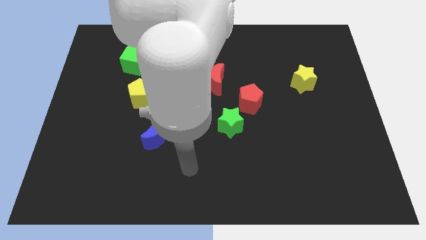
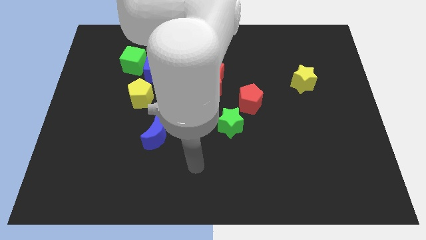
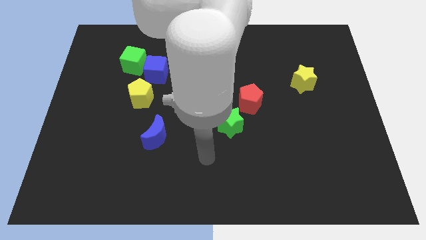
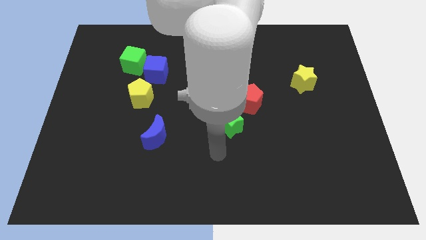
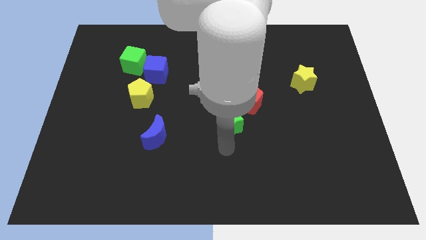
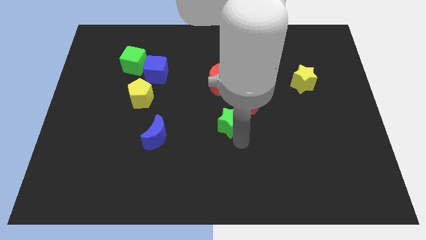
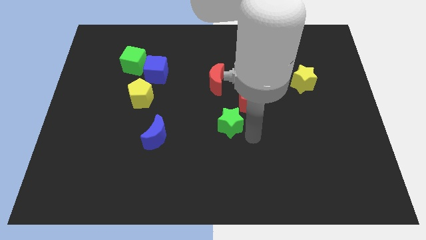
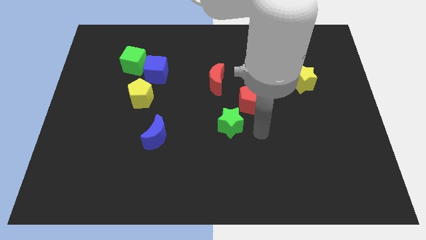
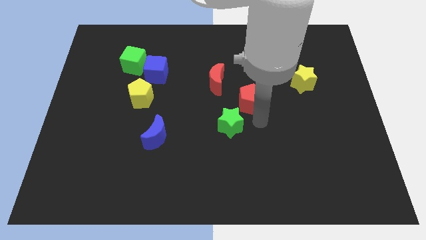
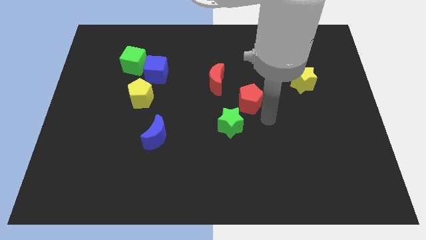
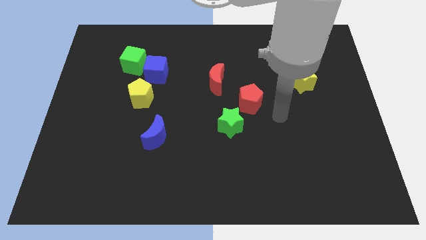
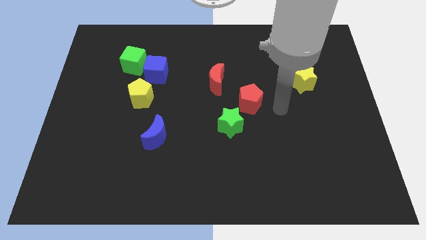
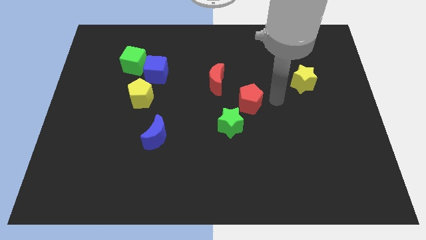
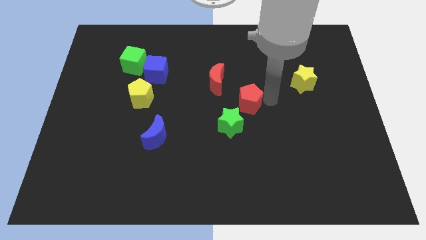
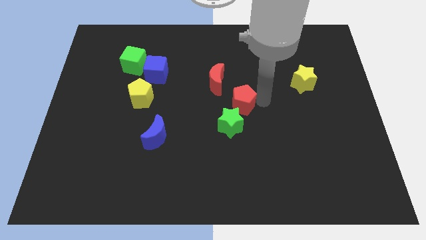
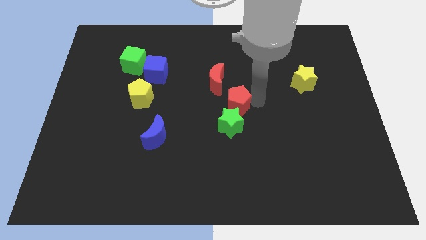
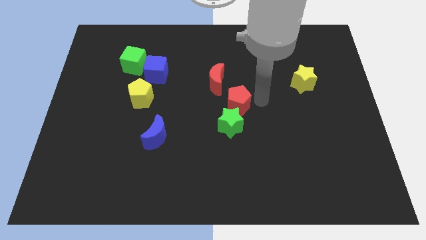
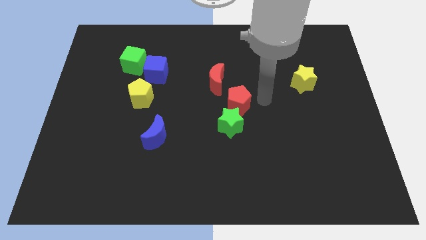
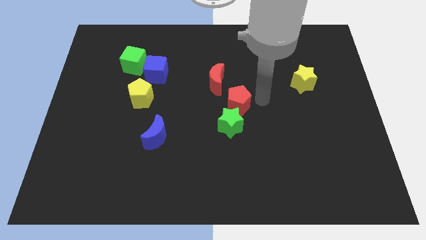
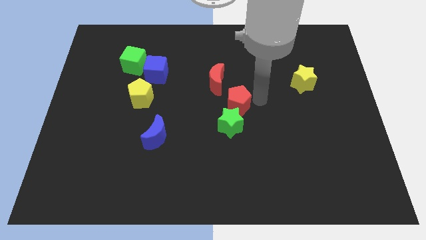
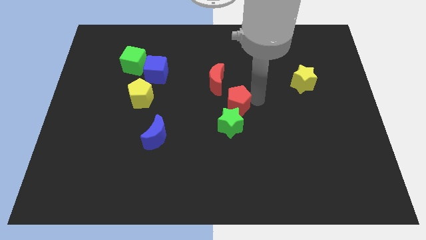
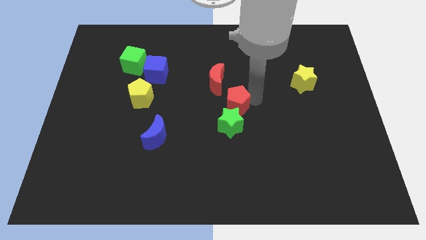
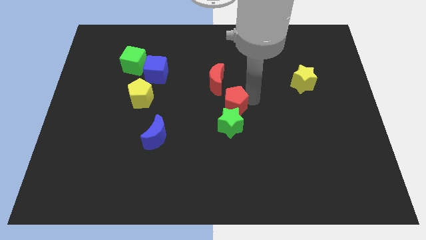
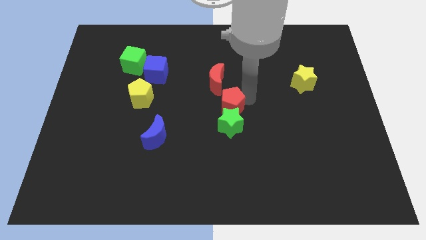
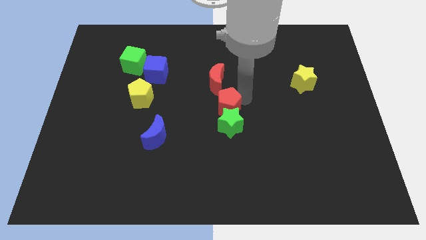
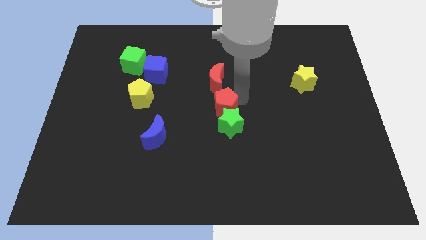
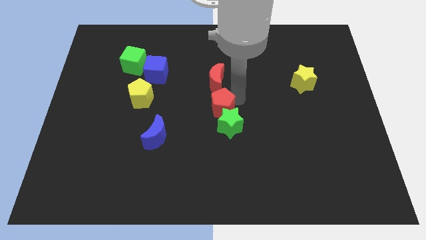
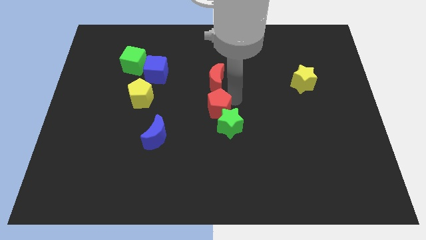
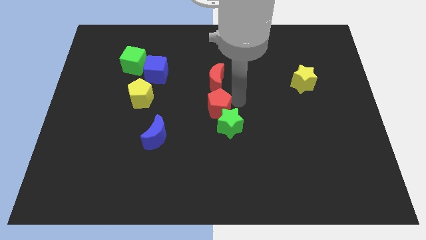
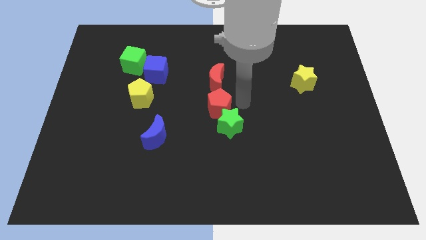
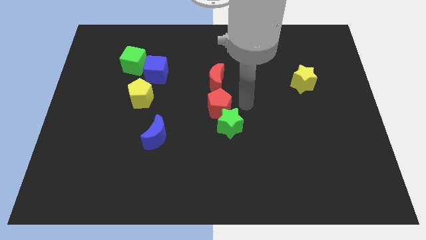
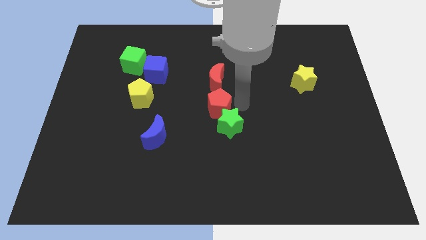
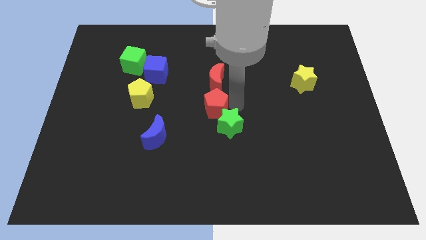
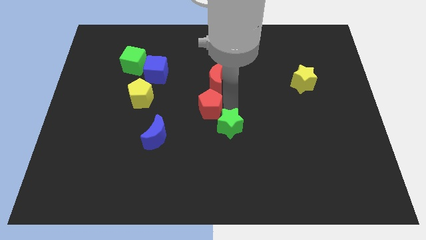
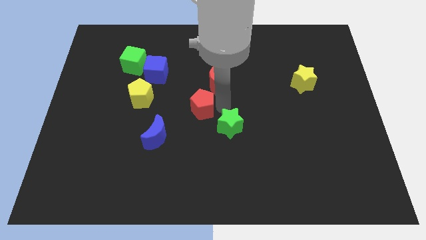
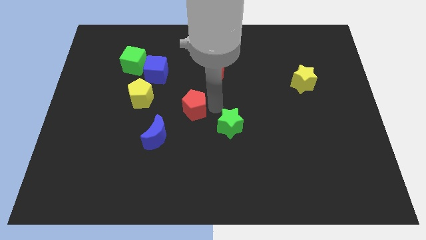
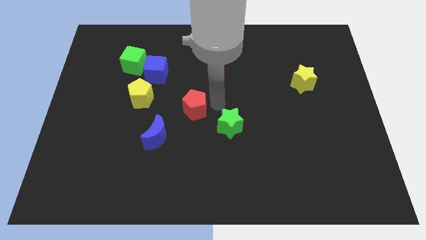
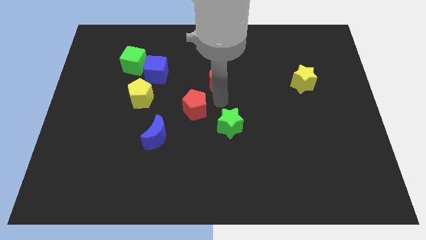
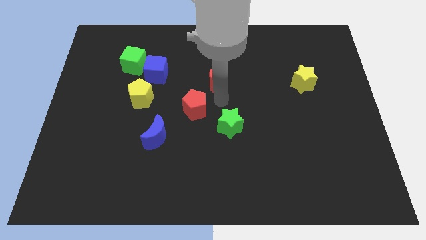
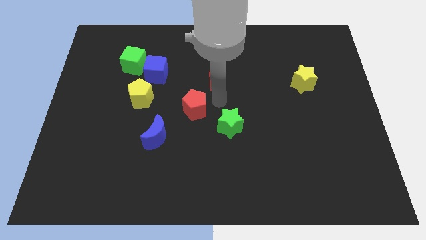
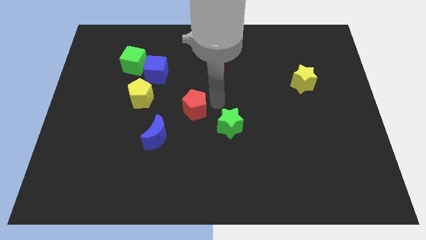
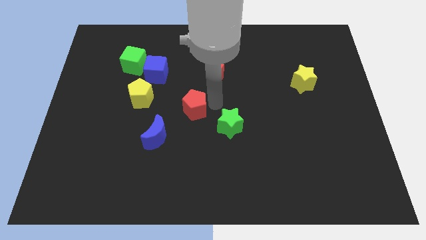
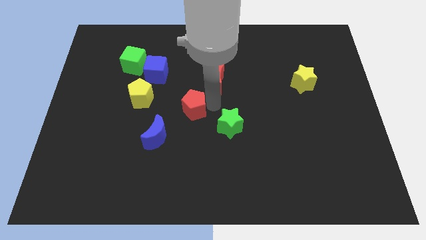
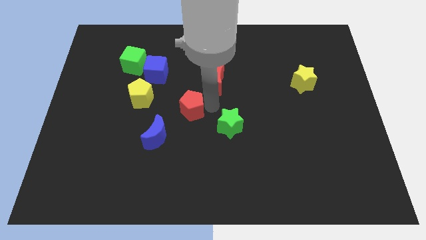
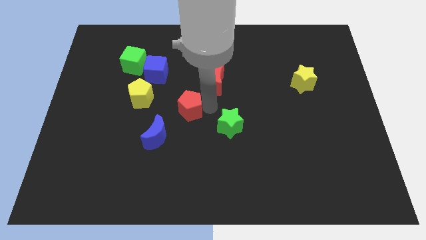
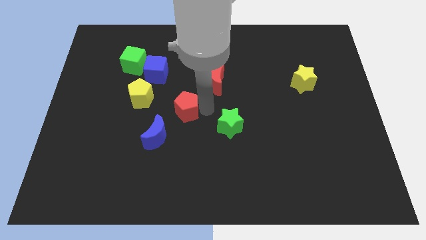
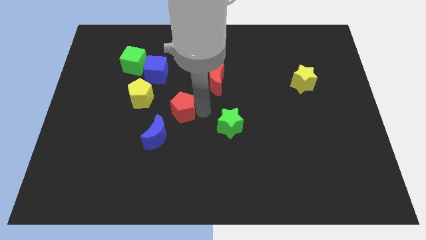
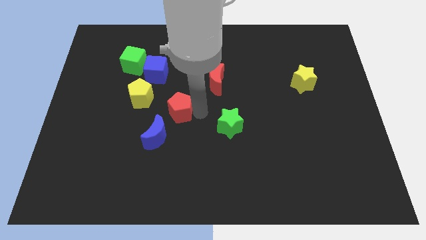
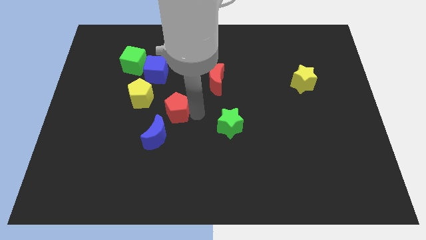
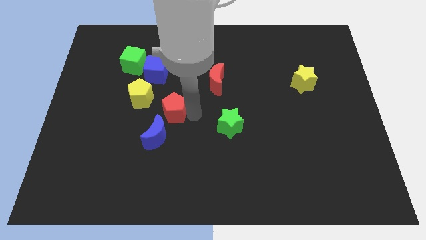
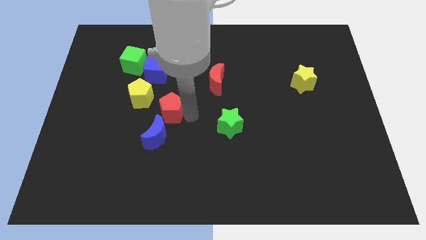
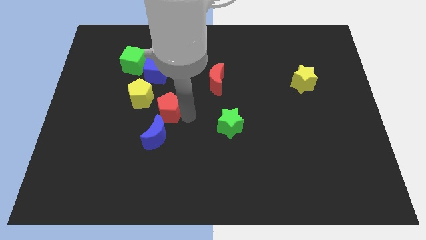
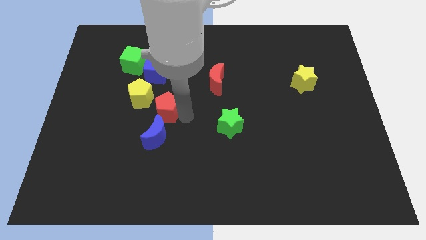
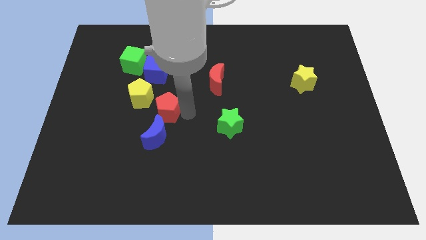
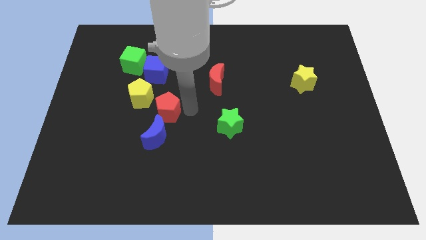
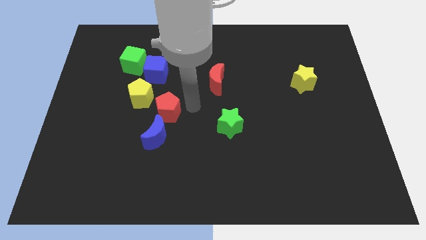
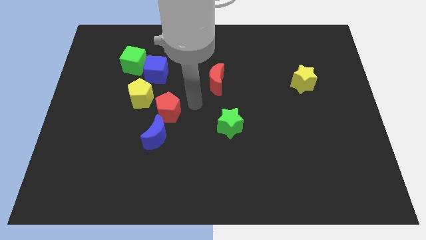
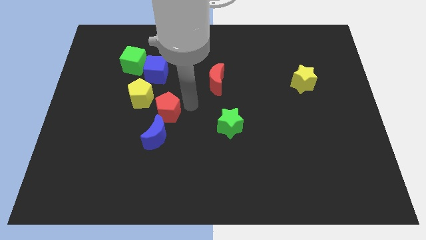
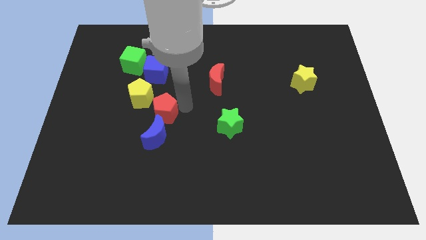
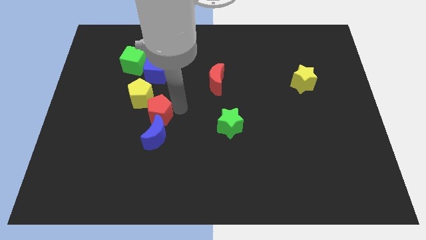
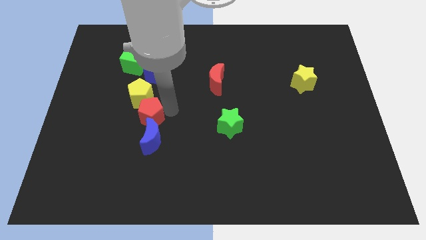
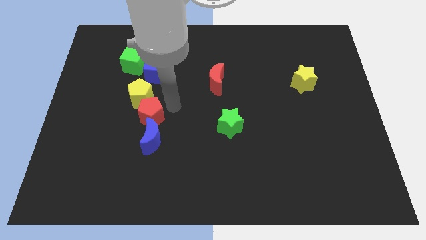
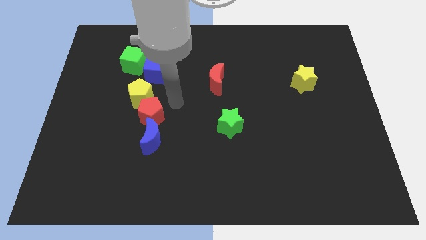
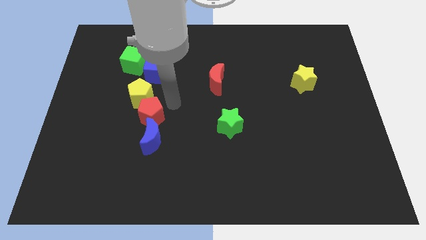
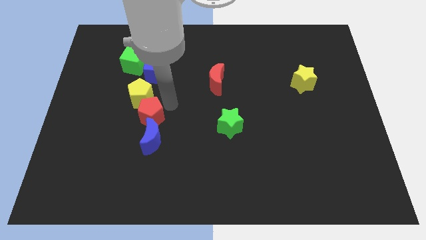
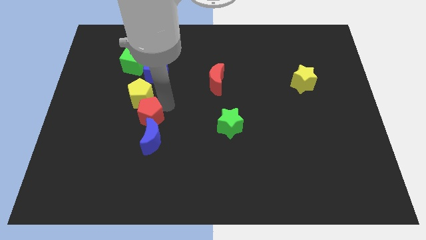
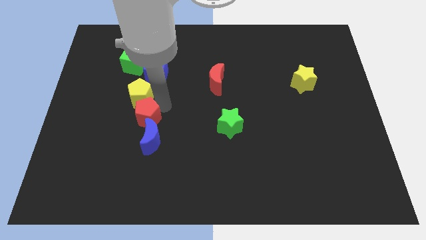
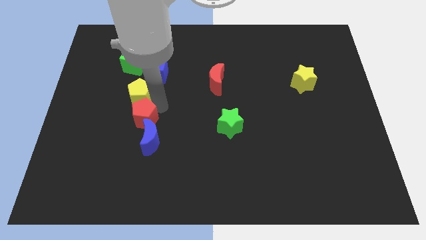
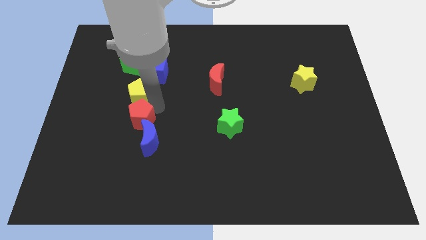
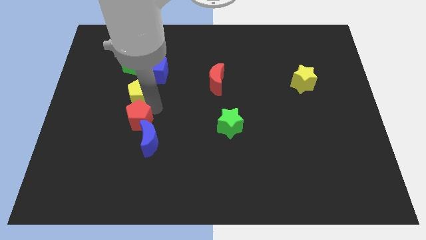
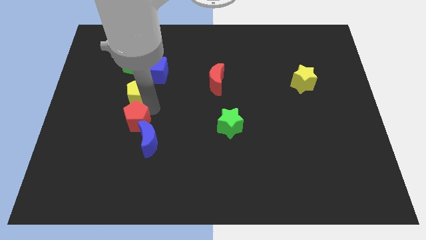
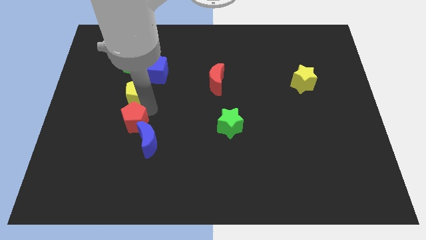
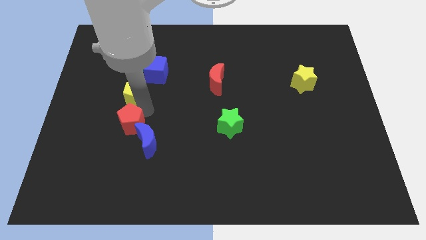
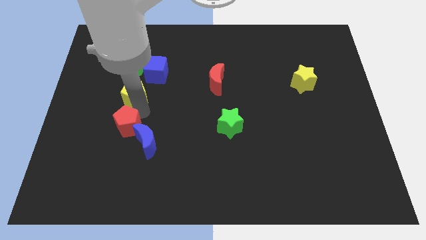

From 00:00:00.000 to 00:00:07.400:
put the red pentagon to the left side of the blue moon
